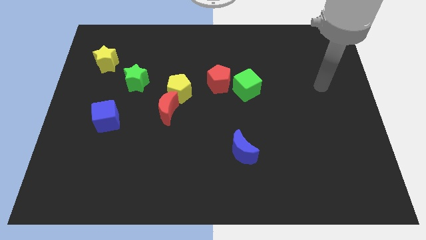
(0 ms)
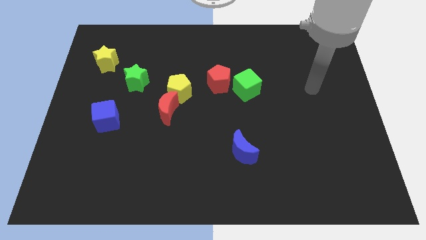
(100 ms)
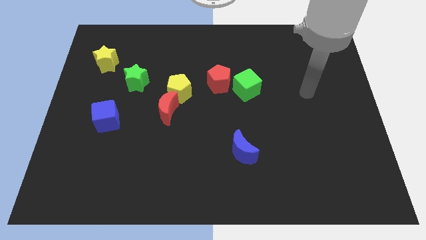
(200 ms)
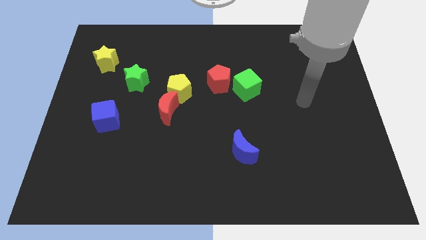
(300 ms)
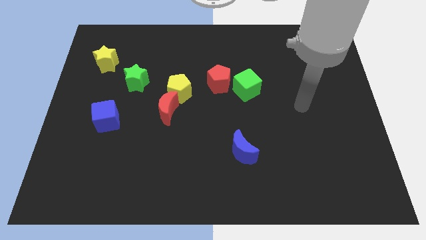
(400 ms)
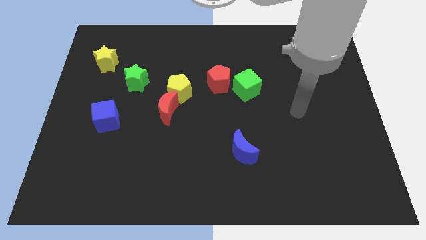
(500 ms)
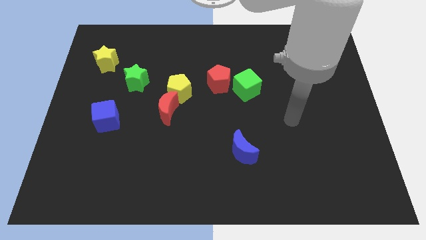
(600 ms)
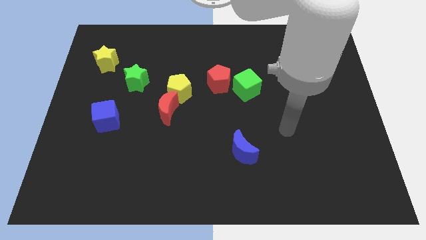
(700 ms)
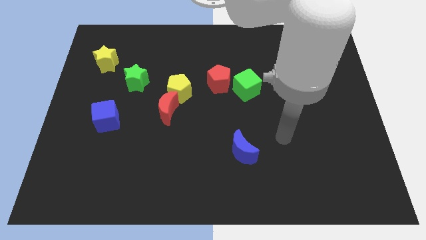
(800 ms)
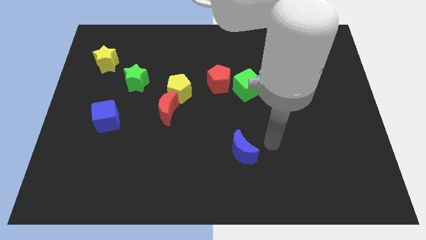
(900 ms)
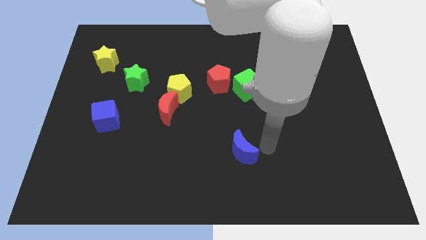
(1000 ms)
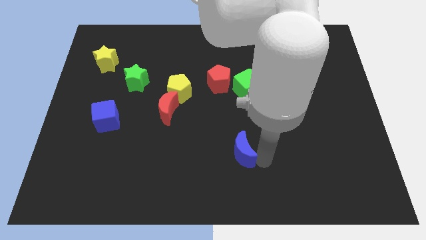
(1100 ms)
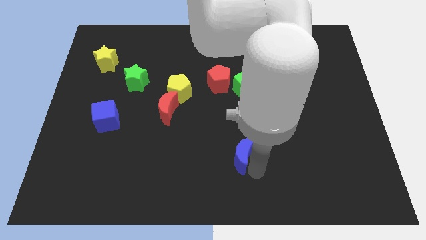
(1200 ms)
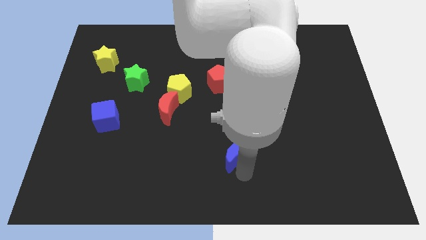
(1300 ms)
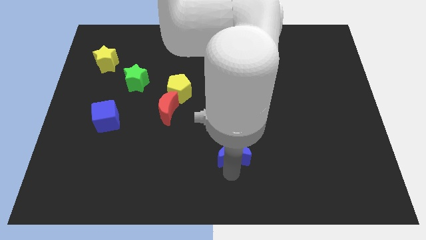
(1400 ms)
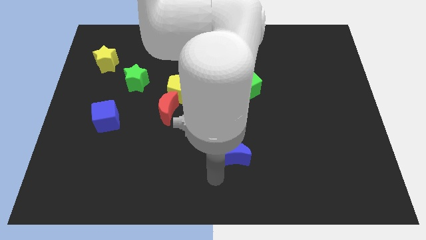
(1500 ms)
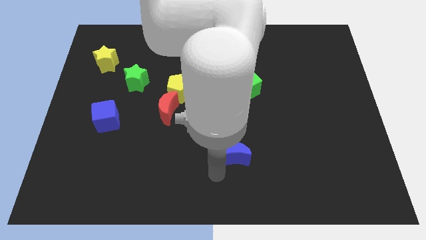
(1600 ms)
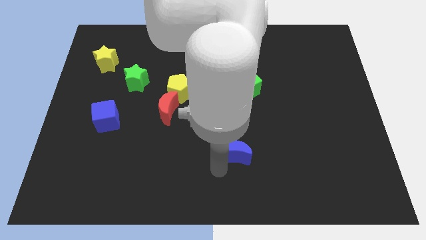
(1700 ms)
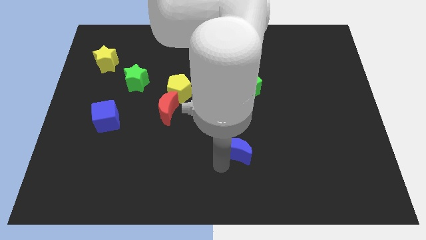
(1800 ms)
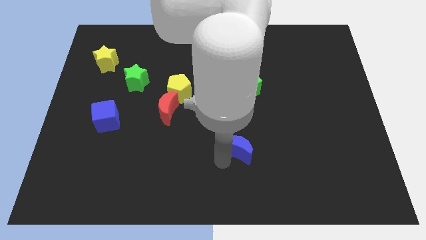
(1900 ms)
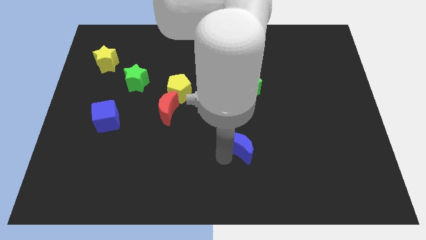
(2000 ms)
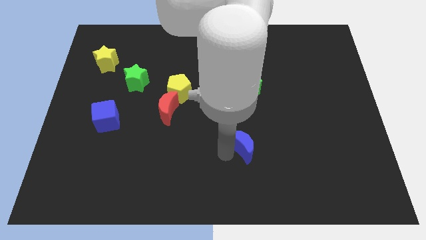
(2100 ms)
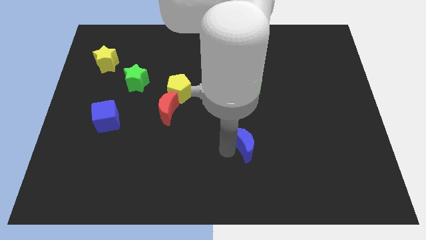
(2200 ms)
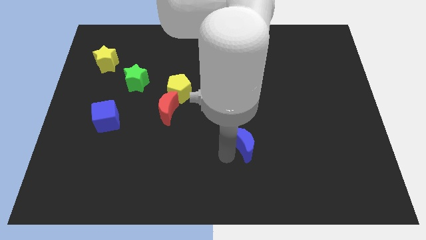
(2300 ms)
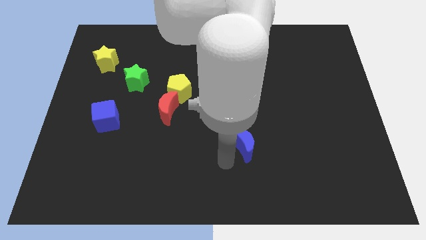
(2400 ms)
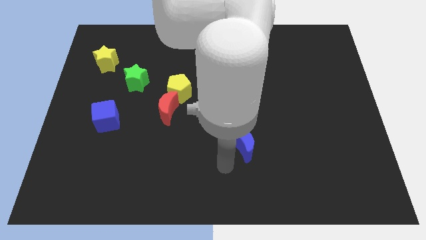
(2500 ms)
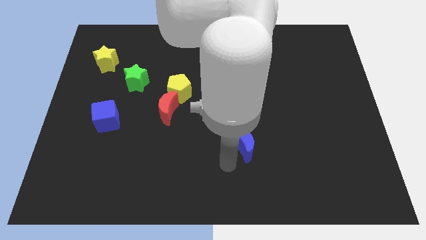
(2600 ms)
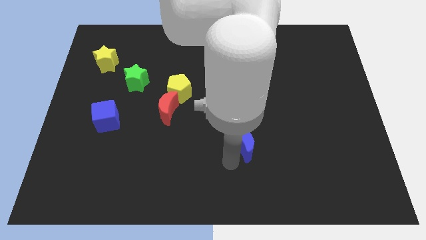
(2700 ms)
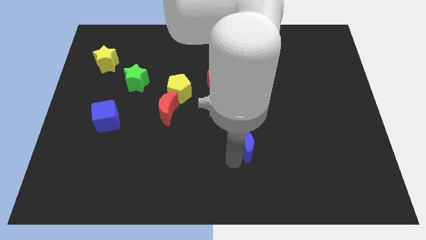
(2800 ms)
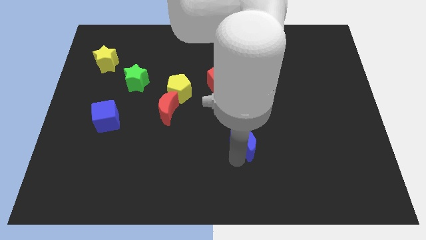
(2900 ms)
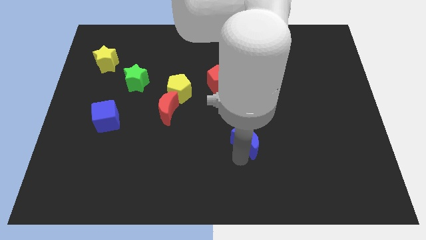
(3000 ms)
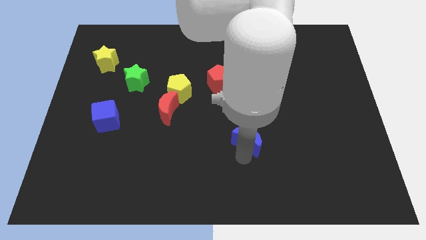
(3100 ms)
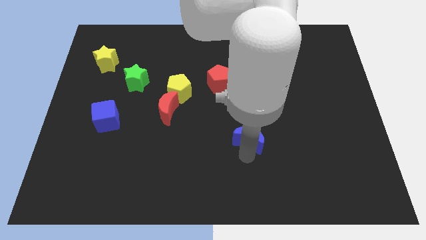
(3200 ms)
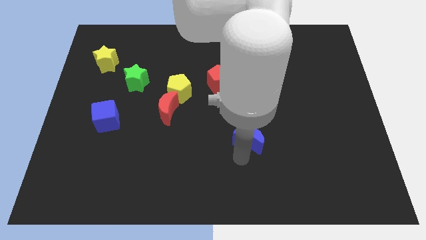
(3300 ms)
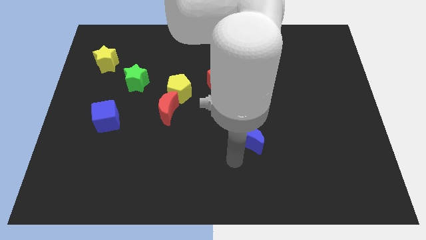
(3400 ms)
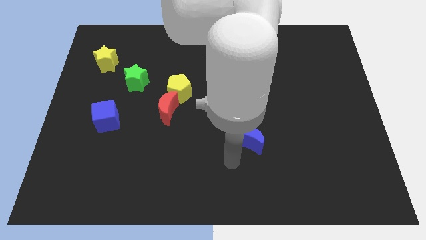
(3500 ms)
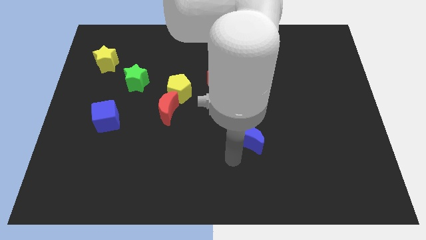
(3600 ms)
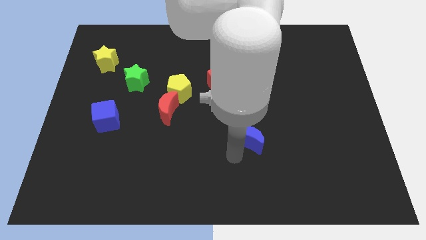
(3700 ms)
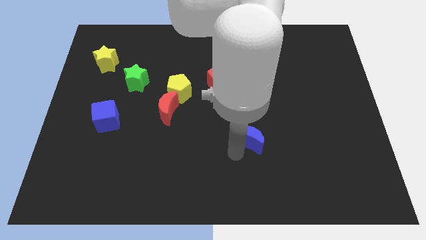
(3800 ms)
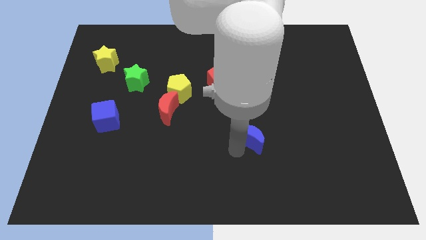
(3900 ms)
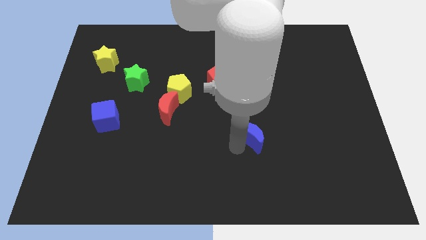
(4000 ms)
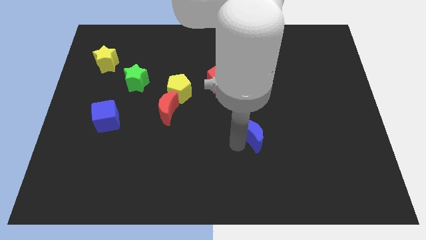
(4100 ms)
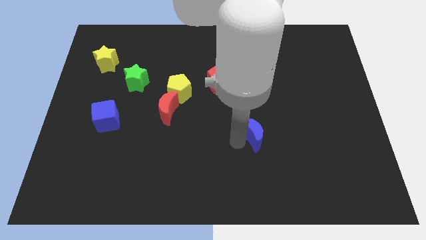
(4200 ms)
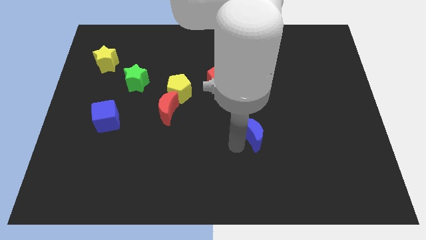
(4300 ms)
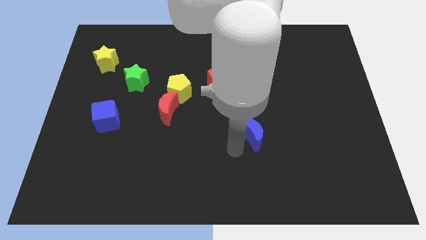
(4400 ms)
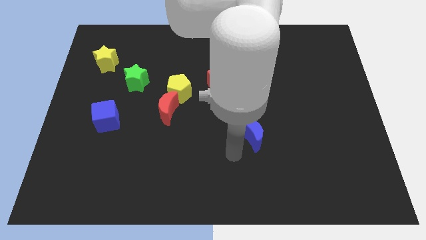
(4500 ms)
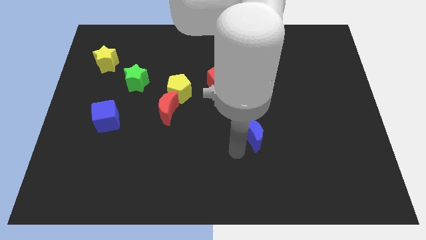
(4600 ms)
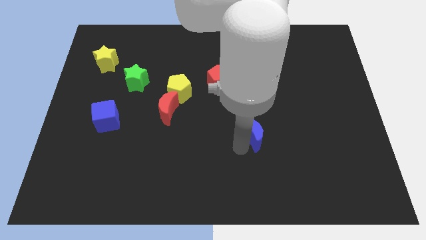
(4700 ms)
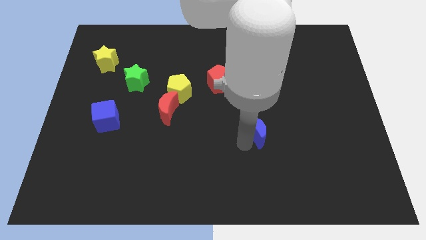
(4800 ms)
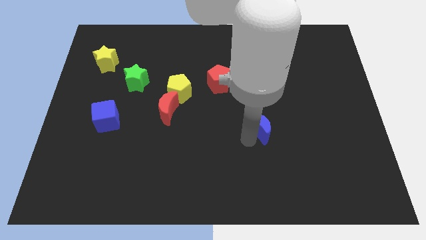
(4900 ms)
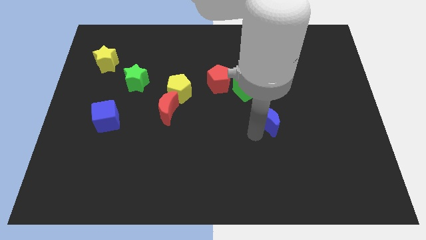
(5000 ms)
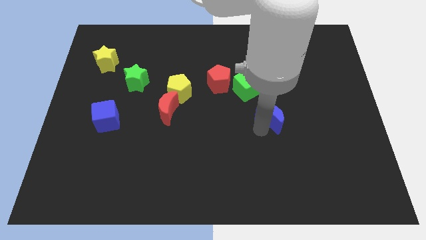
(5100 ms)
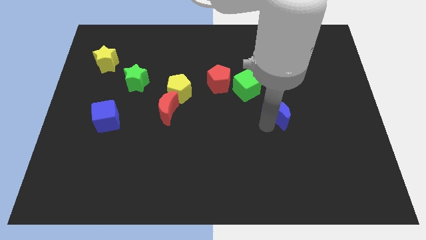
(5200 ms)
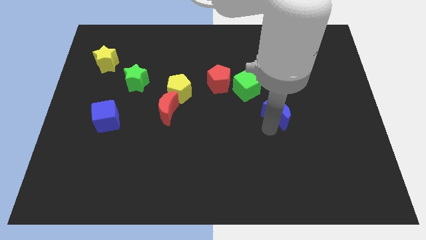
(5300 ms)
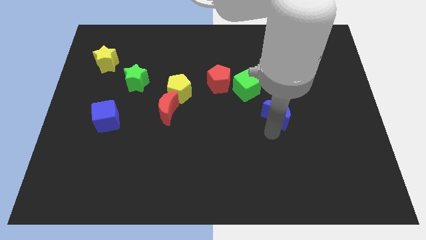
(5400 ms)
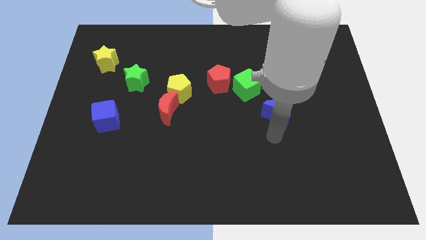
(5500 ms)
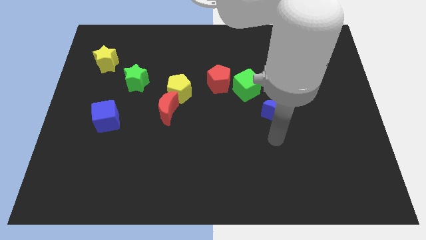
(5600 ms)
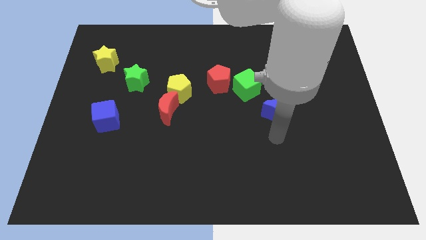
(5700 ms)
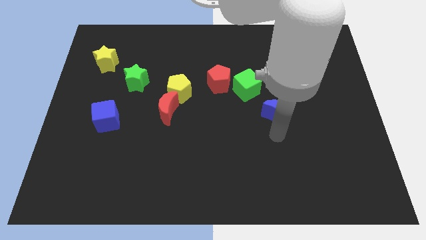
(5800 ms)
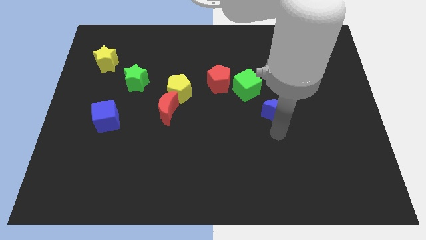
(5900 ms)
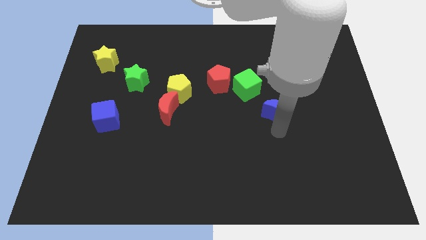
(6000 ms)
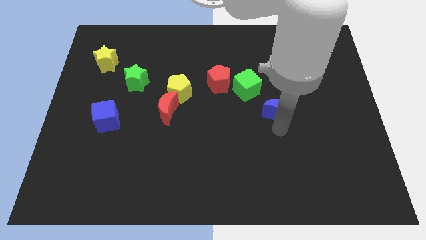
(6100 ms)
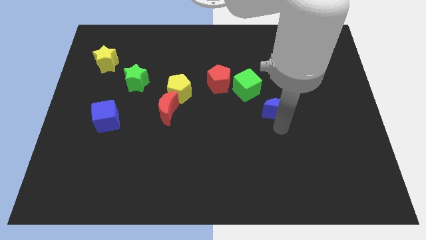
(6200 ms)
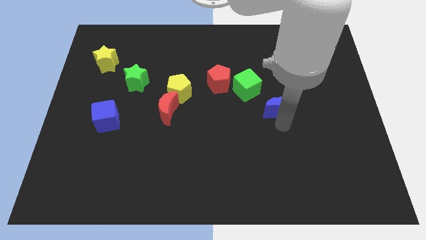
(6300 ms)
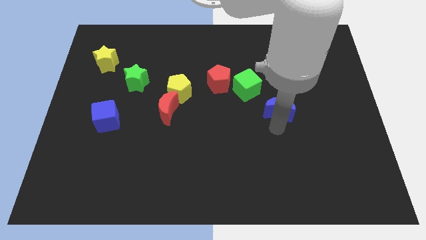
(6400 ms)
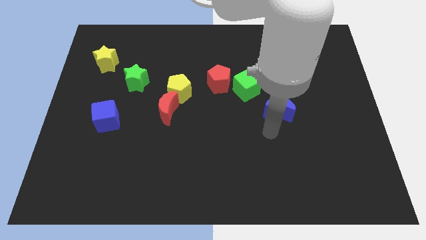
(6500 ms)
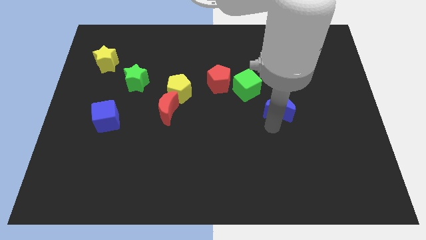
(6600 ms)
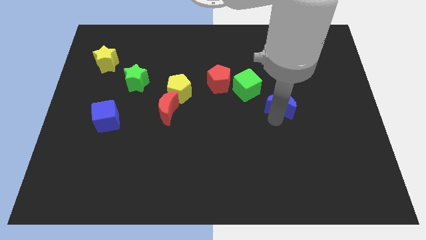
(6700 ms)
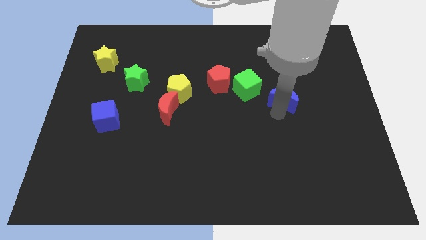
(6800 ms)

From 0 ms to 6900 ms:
push the blue moon right of the green cube

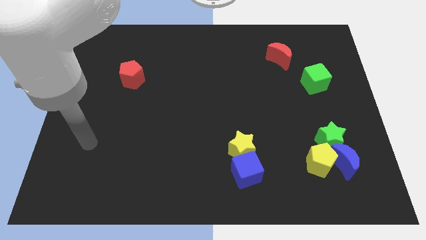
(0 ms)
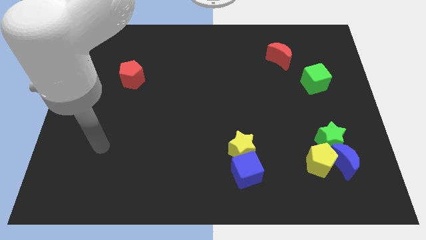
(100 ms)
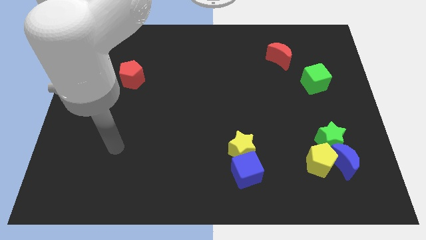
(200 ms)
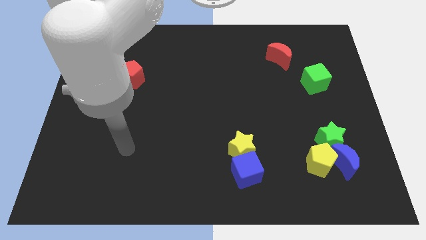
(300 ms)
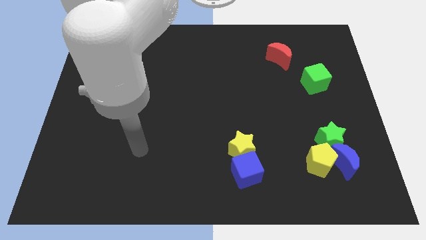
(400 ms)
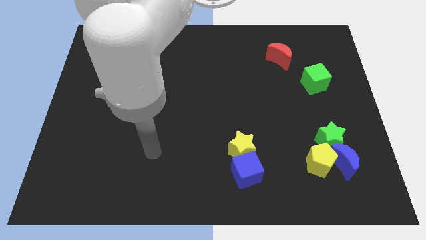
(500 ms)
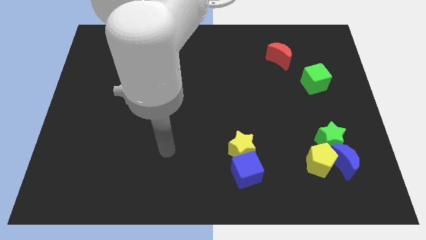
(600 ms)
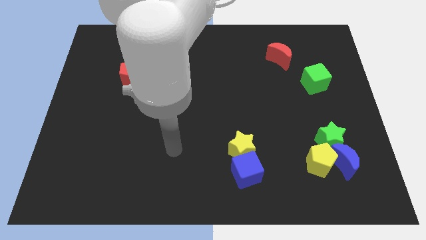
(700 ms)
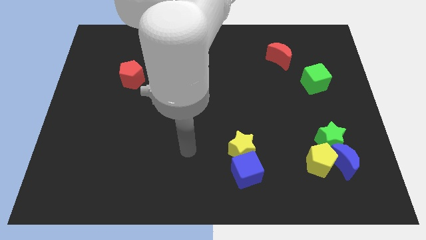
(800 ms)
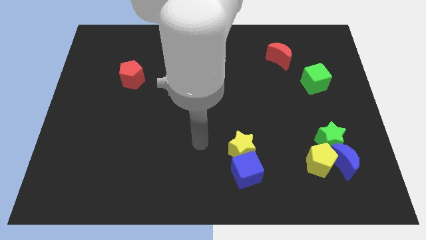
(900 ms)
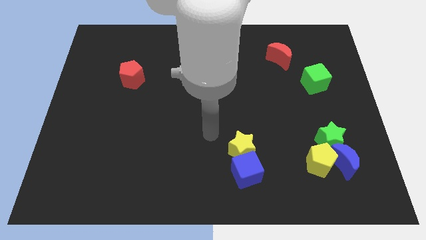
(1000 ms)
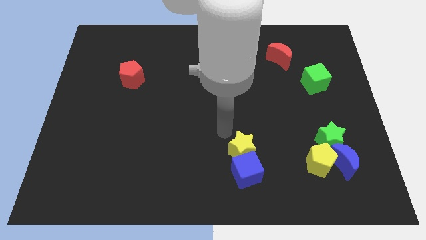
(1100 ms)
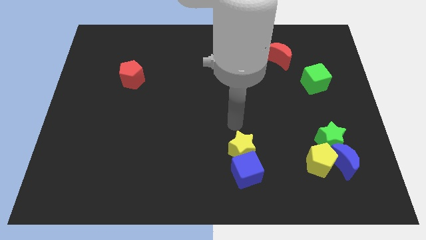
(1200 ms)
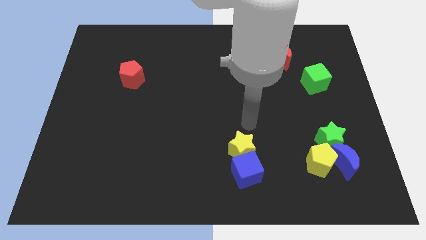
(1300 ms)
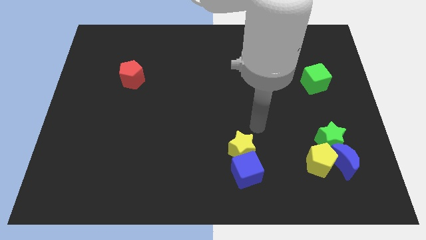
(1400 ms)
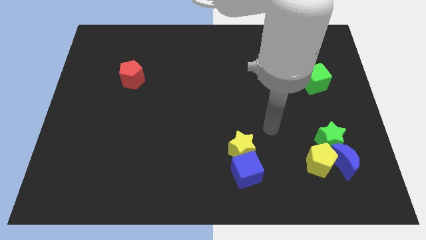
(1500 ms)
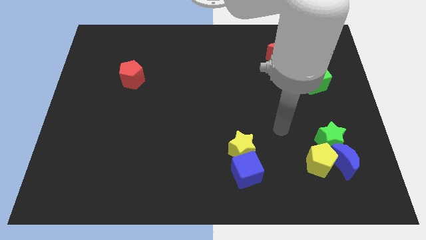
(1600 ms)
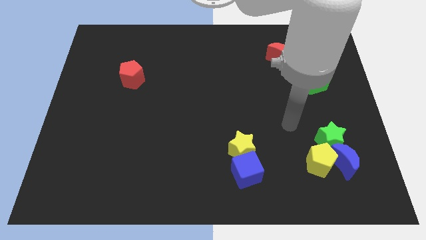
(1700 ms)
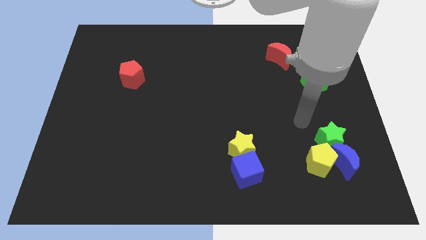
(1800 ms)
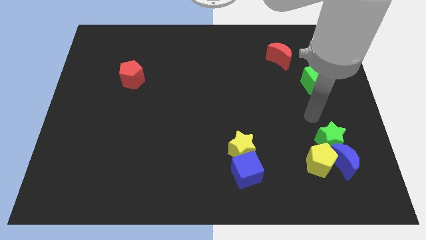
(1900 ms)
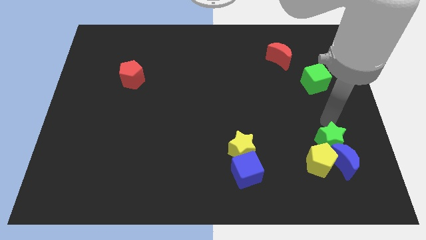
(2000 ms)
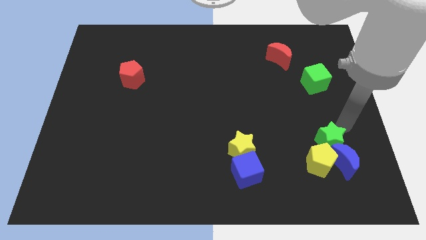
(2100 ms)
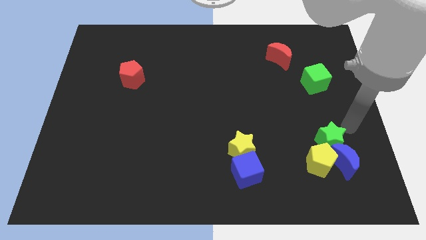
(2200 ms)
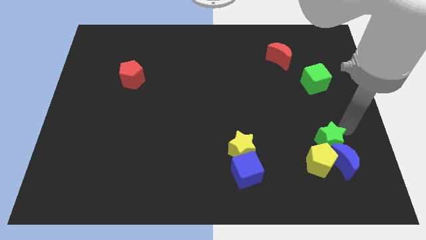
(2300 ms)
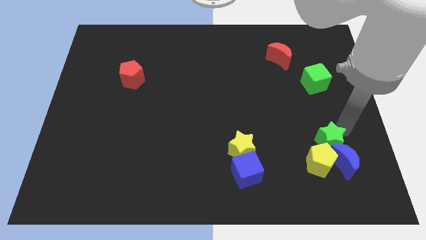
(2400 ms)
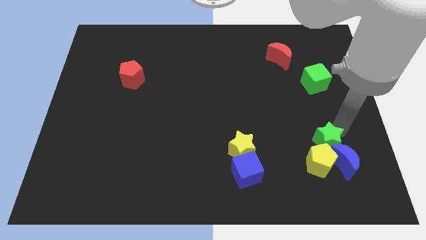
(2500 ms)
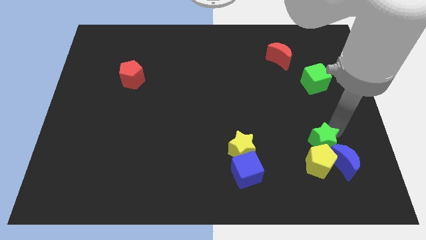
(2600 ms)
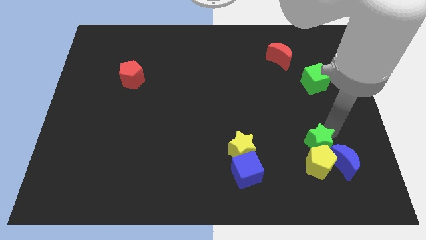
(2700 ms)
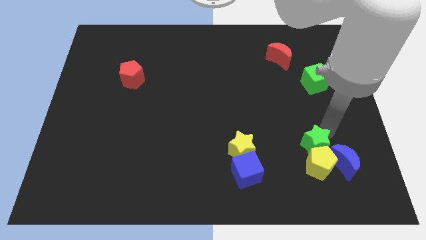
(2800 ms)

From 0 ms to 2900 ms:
put the green star to the left of the blue moon
